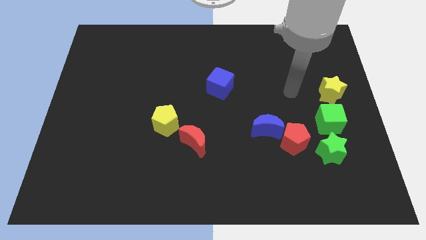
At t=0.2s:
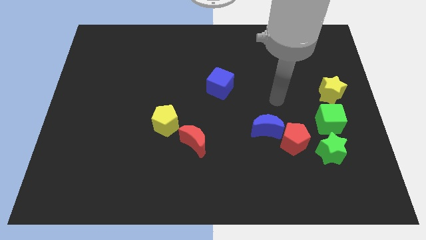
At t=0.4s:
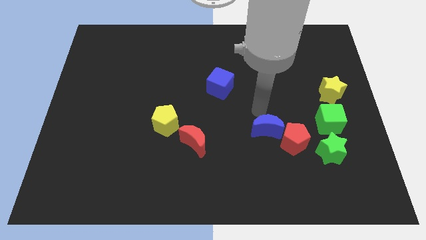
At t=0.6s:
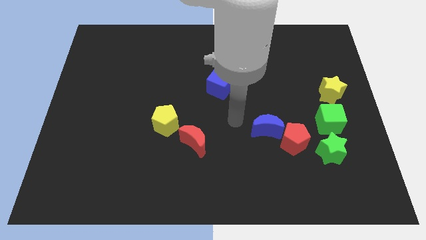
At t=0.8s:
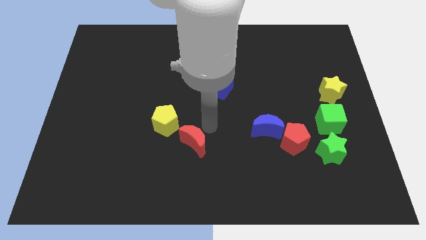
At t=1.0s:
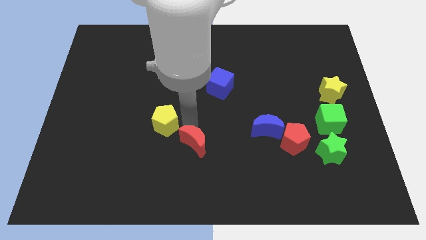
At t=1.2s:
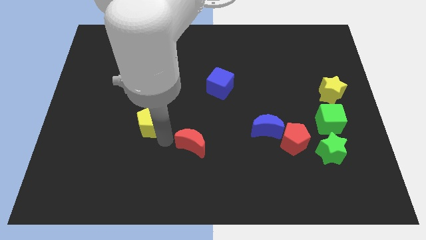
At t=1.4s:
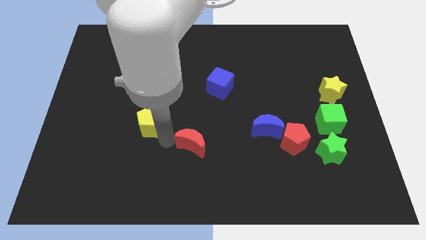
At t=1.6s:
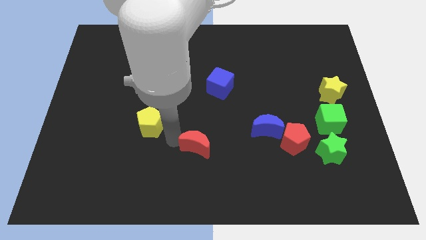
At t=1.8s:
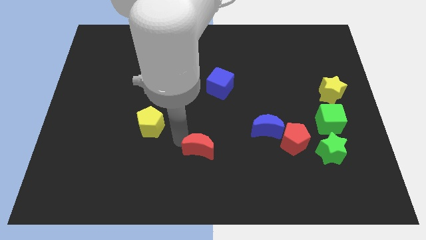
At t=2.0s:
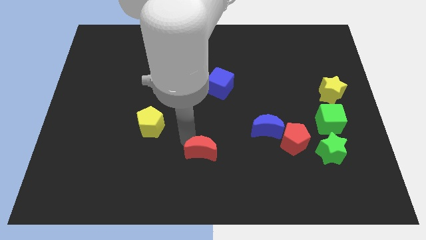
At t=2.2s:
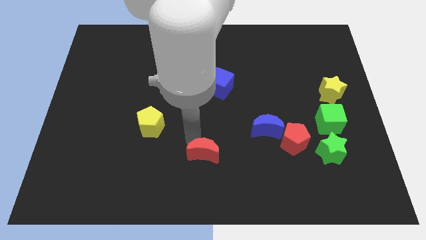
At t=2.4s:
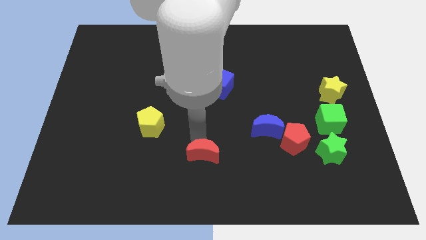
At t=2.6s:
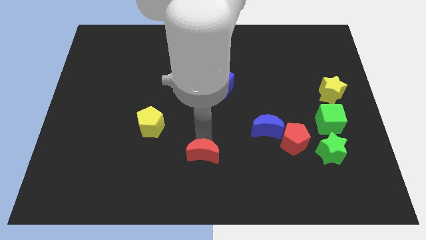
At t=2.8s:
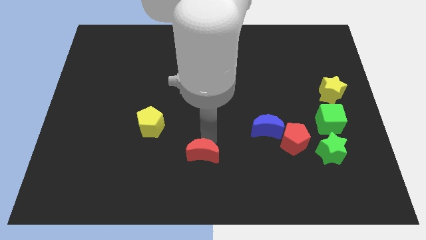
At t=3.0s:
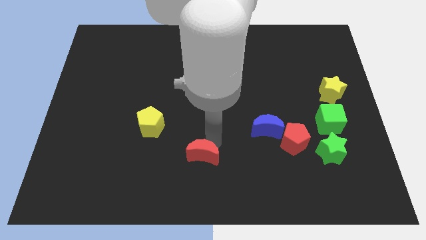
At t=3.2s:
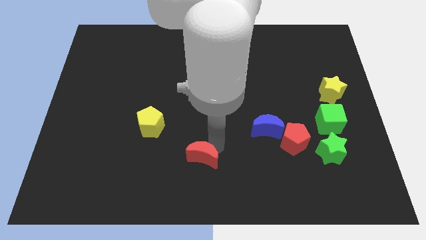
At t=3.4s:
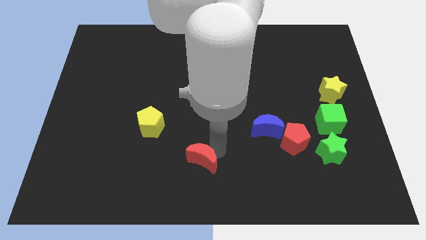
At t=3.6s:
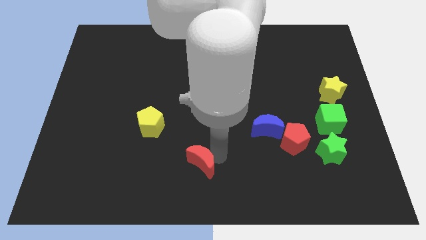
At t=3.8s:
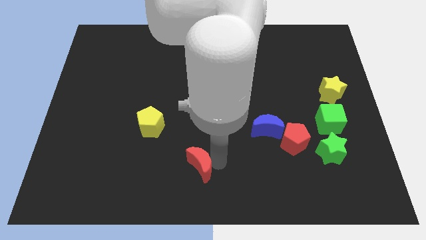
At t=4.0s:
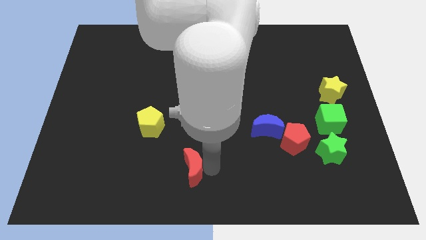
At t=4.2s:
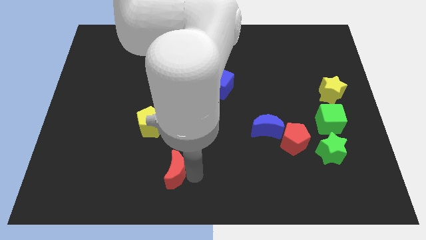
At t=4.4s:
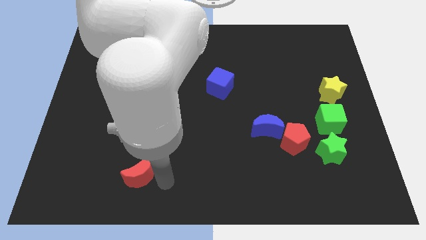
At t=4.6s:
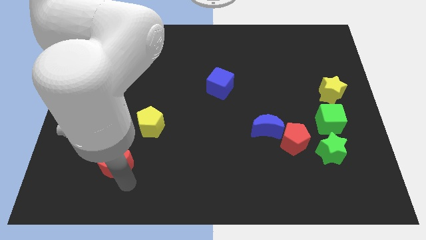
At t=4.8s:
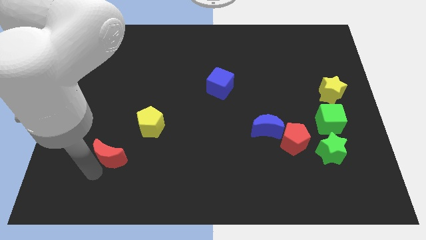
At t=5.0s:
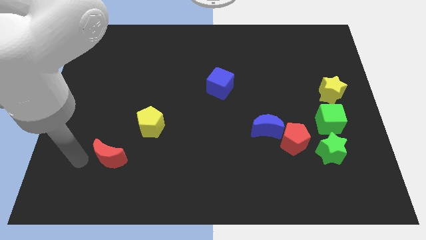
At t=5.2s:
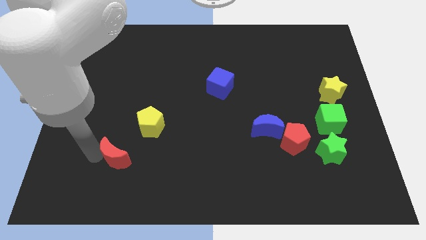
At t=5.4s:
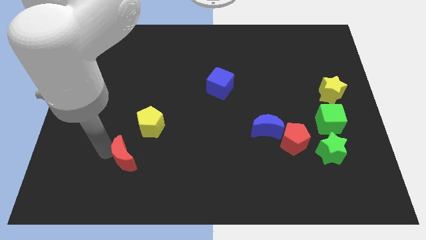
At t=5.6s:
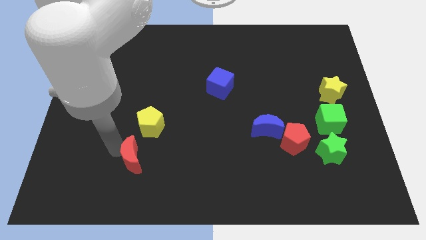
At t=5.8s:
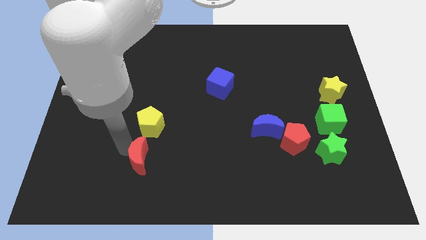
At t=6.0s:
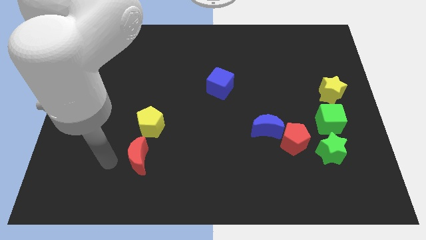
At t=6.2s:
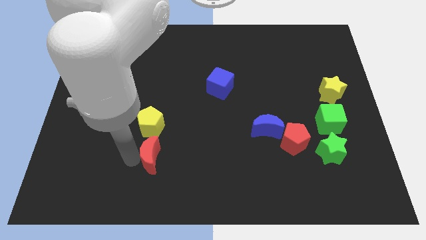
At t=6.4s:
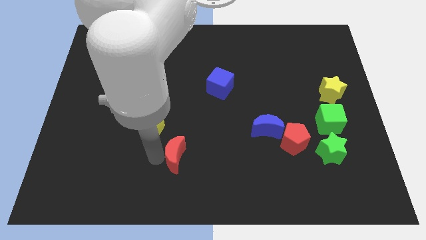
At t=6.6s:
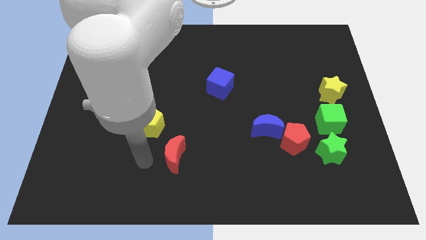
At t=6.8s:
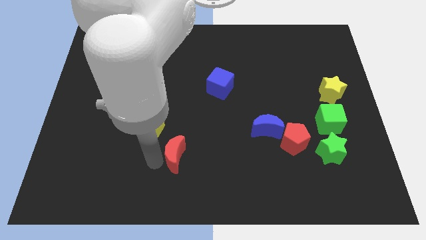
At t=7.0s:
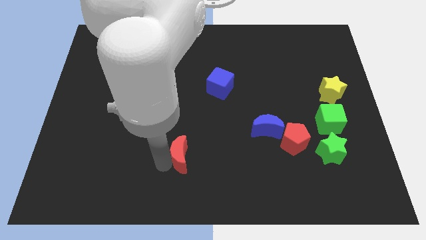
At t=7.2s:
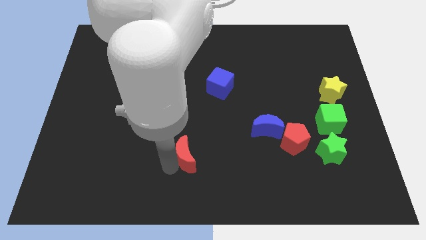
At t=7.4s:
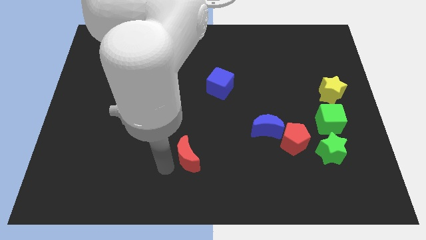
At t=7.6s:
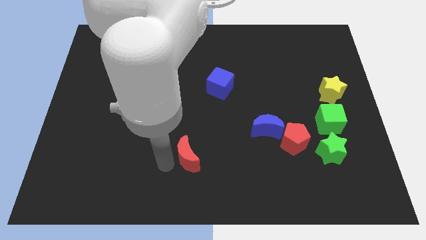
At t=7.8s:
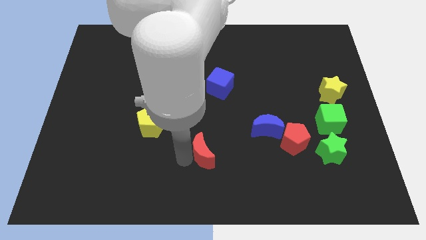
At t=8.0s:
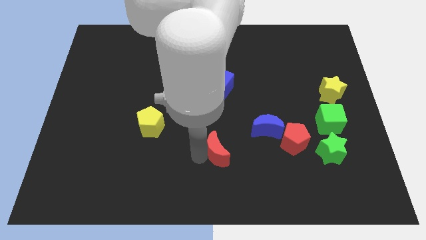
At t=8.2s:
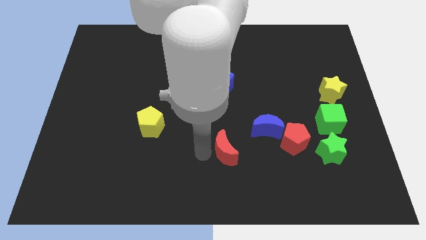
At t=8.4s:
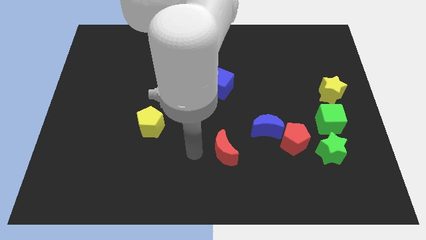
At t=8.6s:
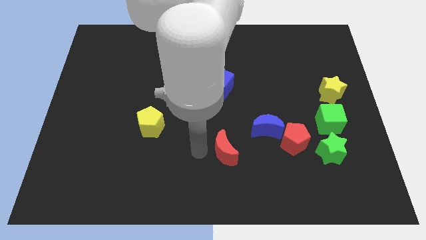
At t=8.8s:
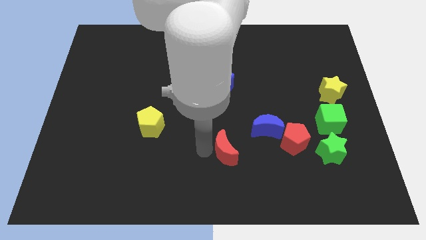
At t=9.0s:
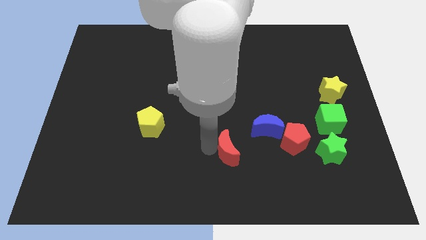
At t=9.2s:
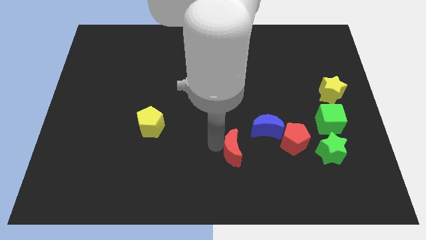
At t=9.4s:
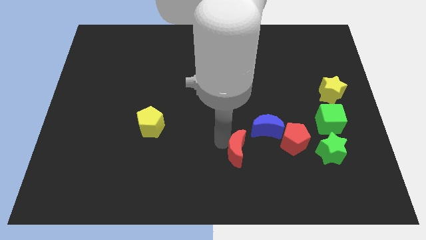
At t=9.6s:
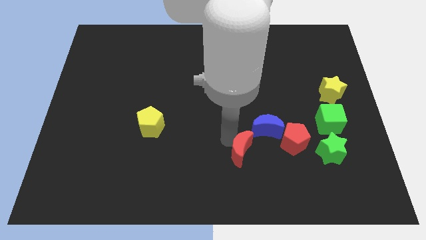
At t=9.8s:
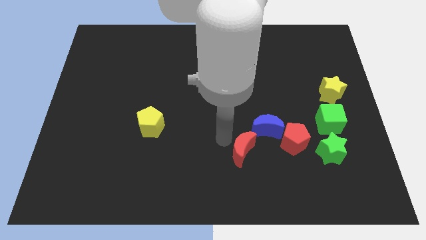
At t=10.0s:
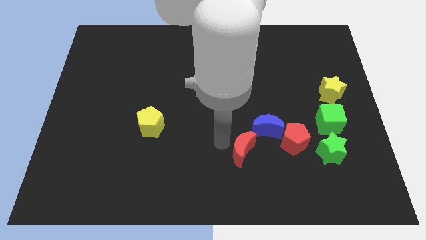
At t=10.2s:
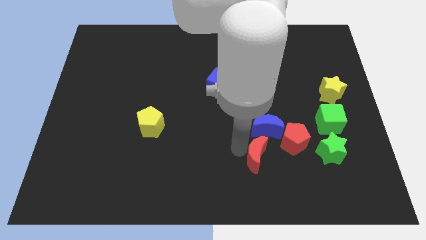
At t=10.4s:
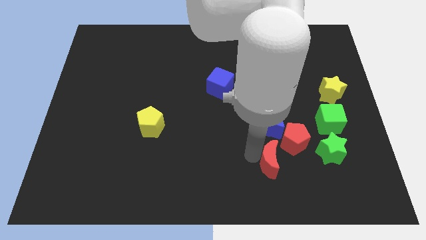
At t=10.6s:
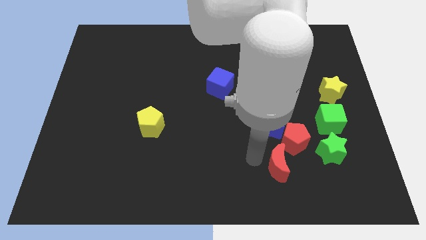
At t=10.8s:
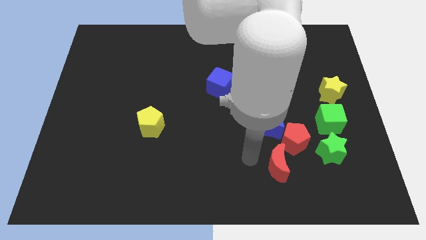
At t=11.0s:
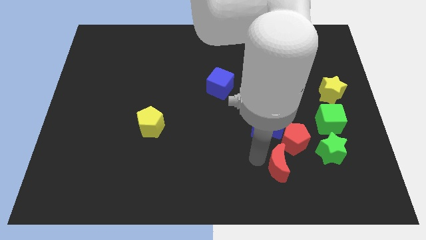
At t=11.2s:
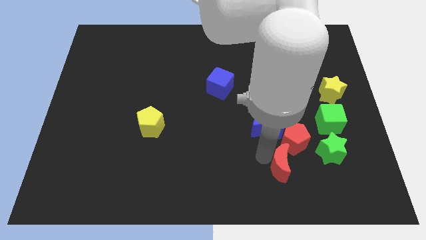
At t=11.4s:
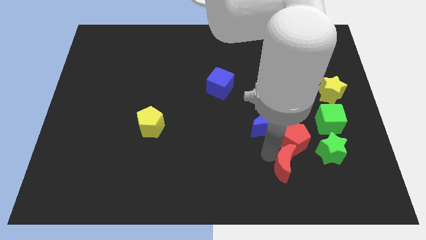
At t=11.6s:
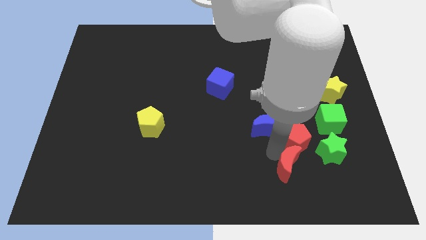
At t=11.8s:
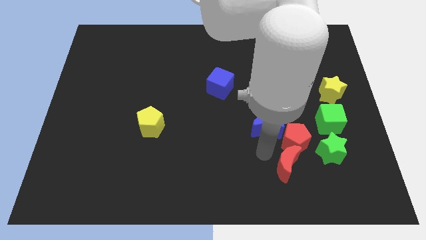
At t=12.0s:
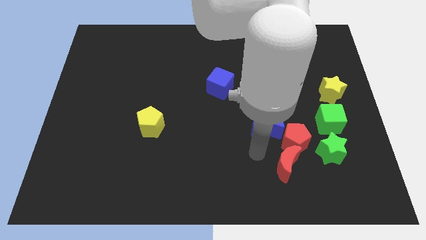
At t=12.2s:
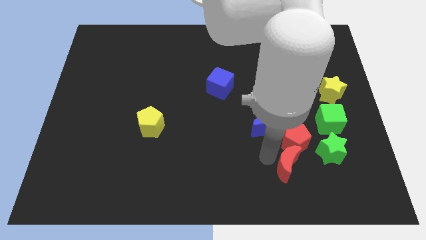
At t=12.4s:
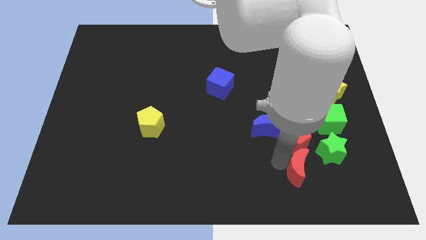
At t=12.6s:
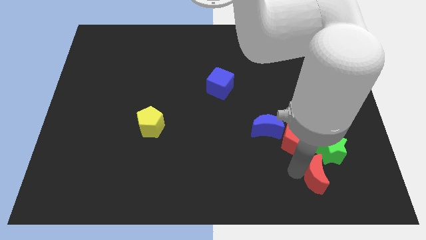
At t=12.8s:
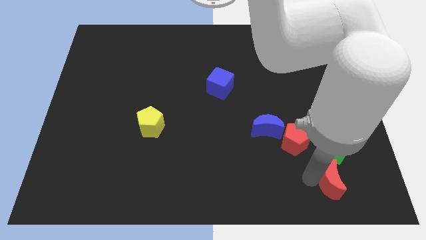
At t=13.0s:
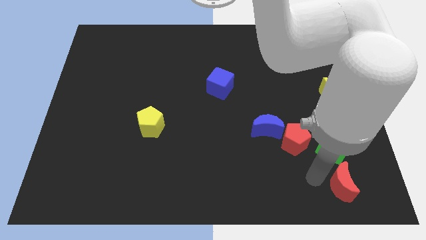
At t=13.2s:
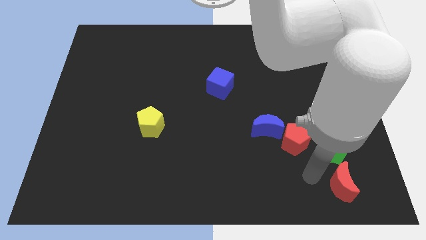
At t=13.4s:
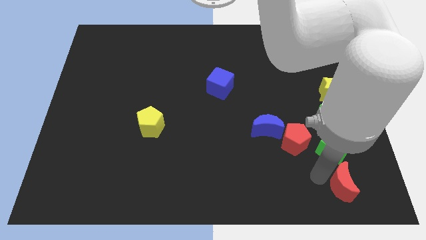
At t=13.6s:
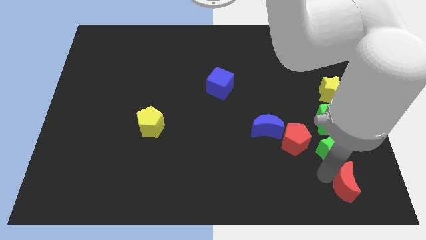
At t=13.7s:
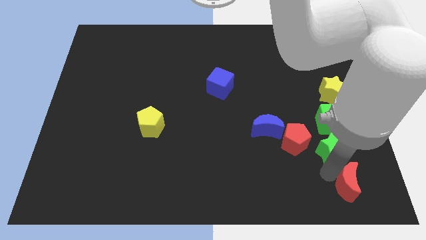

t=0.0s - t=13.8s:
put the red moon to the bottom right of the board
